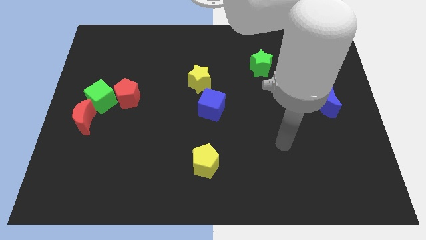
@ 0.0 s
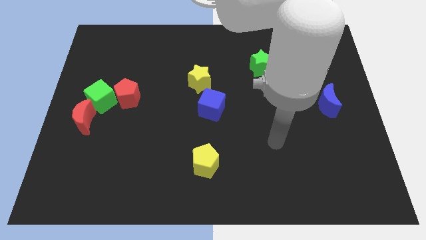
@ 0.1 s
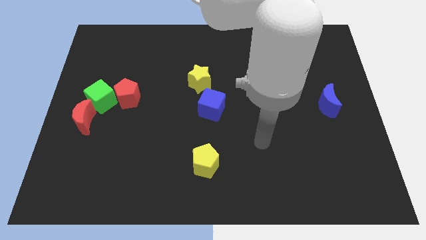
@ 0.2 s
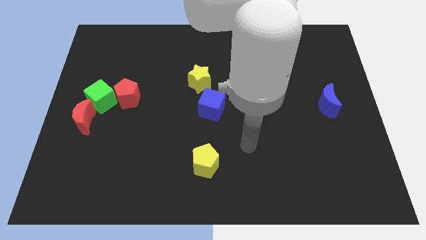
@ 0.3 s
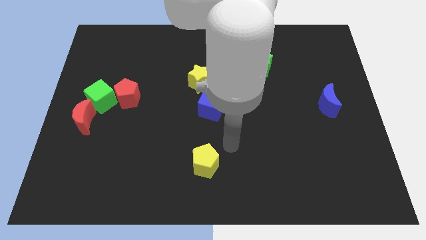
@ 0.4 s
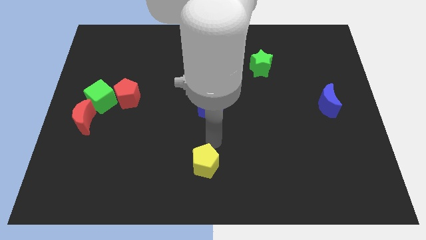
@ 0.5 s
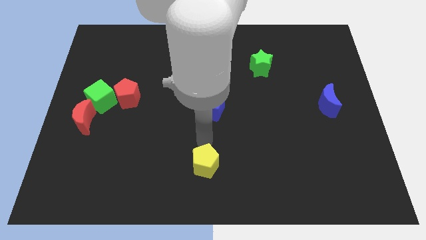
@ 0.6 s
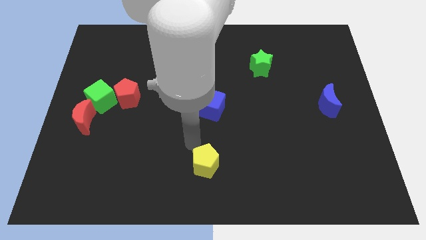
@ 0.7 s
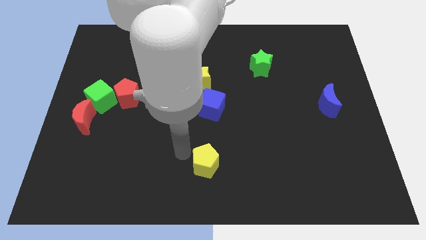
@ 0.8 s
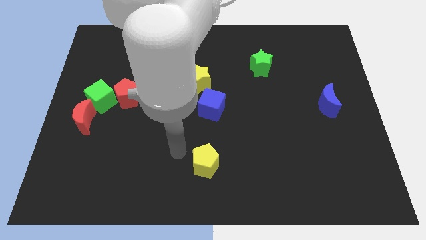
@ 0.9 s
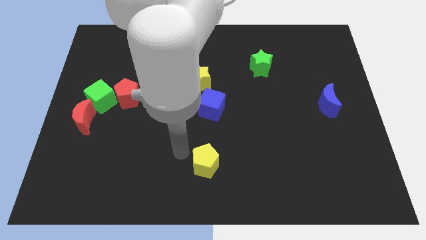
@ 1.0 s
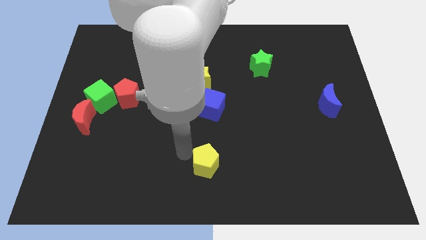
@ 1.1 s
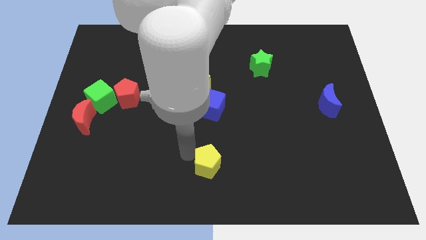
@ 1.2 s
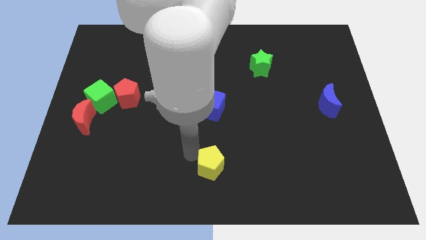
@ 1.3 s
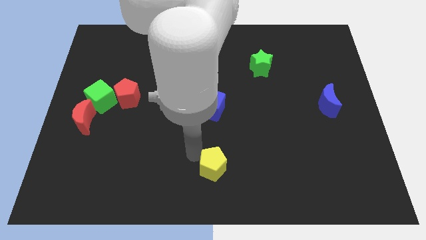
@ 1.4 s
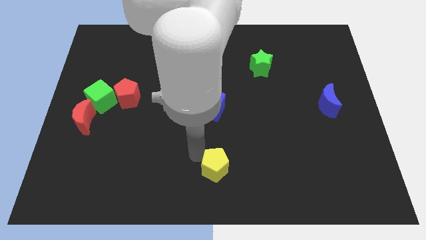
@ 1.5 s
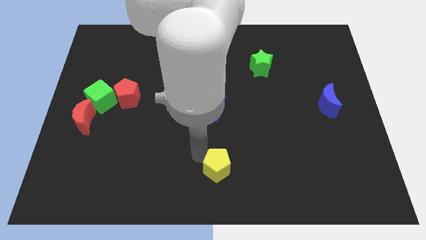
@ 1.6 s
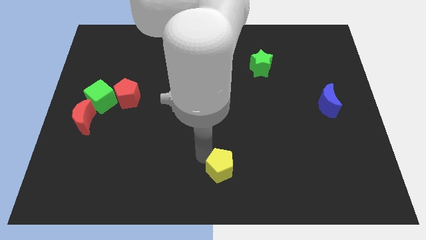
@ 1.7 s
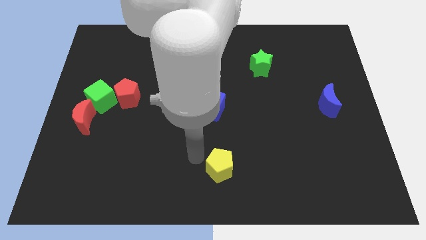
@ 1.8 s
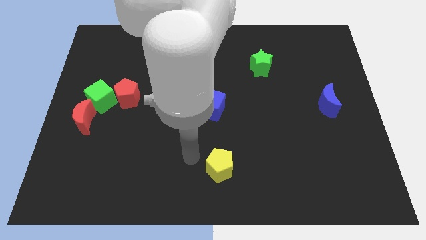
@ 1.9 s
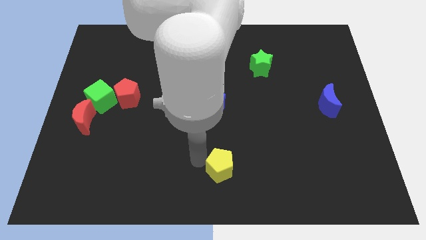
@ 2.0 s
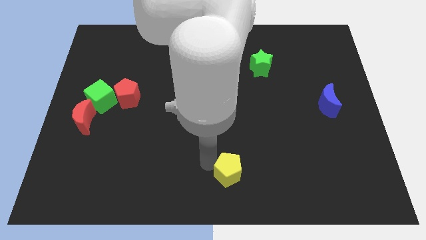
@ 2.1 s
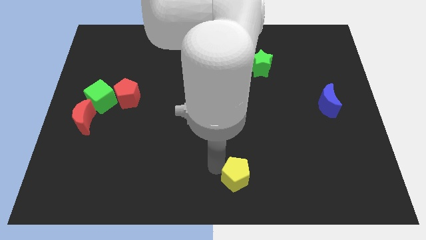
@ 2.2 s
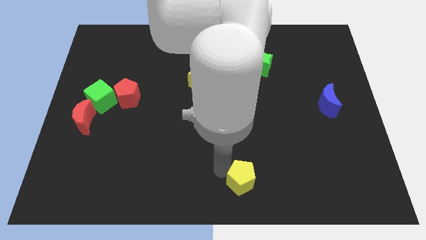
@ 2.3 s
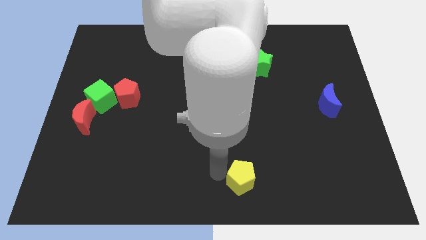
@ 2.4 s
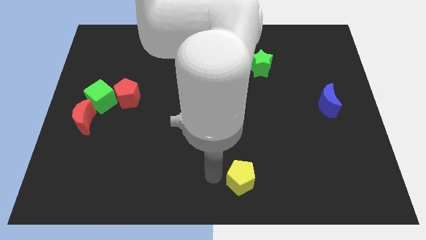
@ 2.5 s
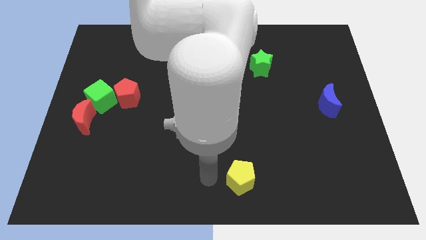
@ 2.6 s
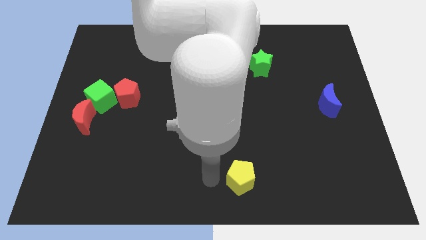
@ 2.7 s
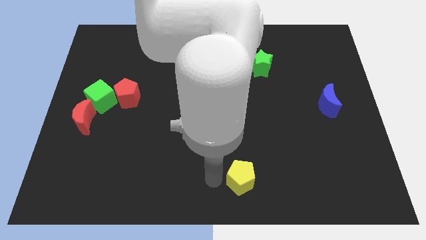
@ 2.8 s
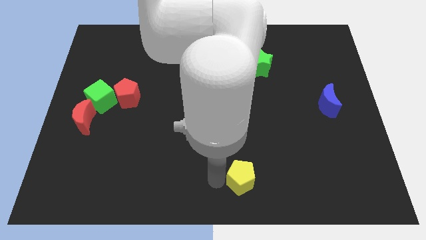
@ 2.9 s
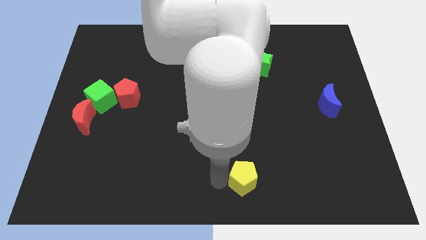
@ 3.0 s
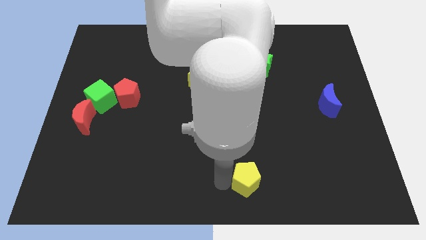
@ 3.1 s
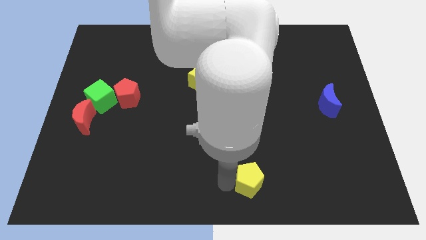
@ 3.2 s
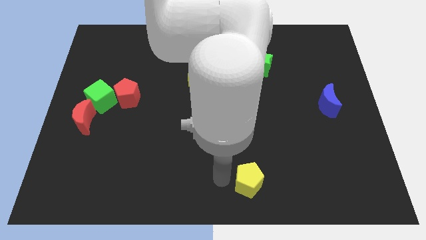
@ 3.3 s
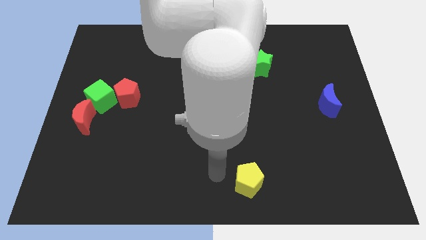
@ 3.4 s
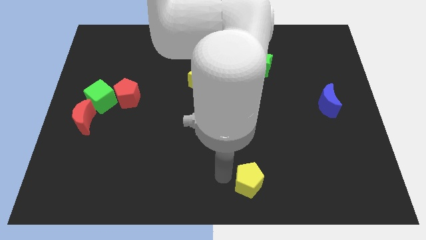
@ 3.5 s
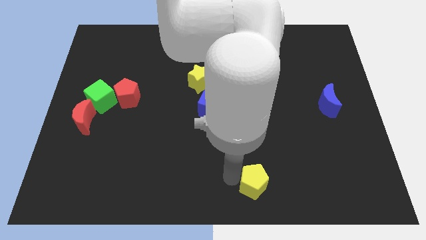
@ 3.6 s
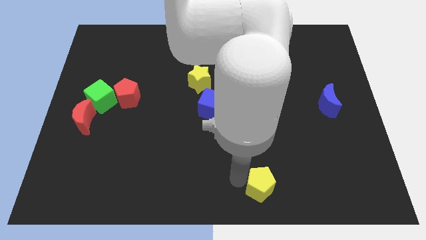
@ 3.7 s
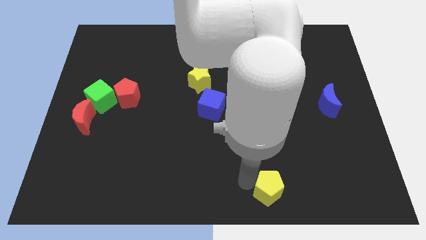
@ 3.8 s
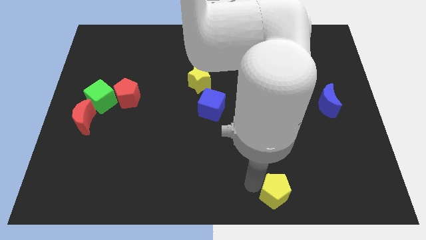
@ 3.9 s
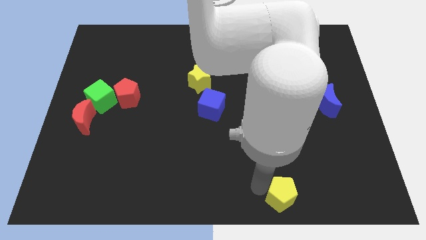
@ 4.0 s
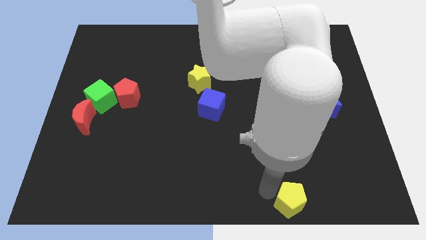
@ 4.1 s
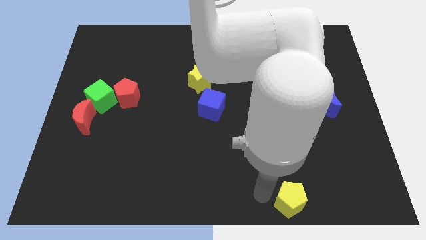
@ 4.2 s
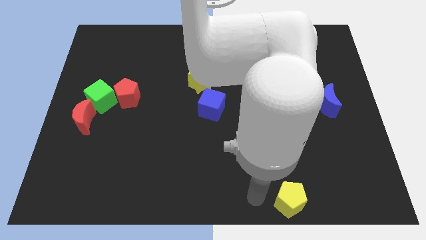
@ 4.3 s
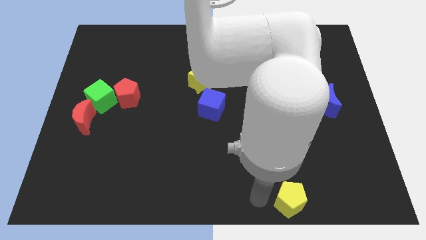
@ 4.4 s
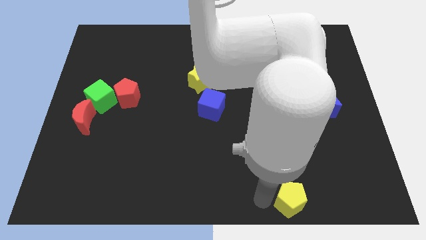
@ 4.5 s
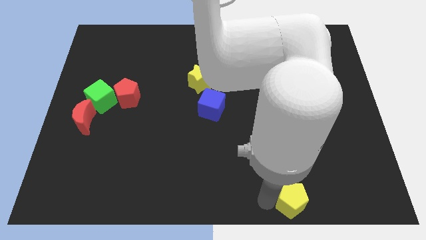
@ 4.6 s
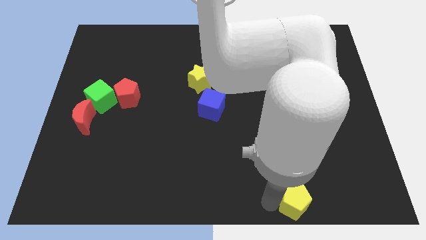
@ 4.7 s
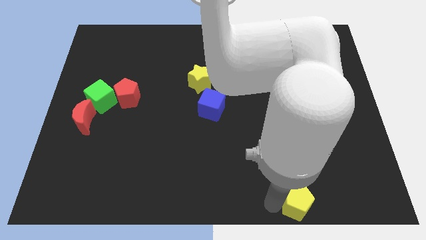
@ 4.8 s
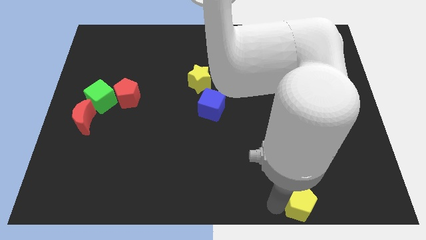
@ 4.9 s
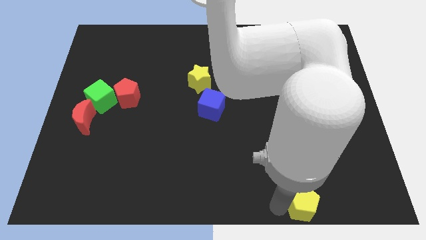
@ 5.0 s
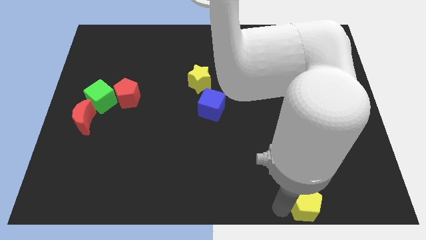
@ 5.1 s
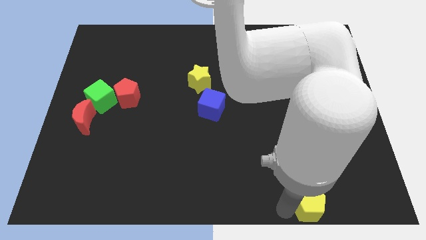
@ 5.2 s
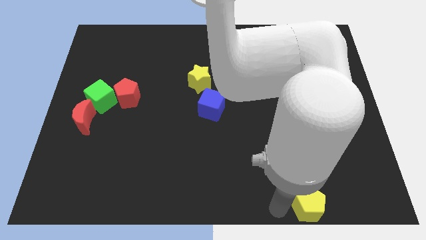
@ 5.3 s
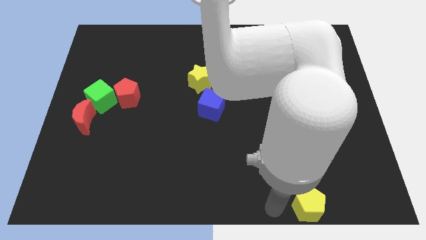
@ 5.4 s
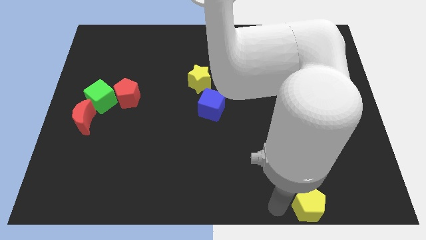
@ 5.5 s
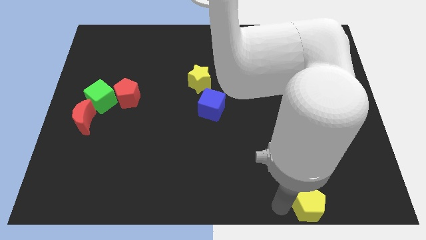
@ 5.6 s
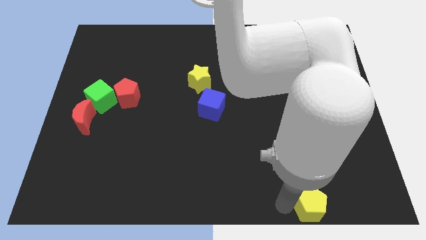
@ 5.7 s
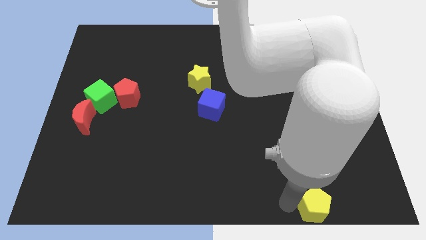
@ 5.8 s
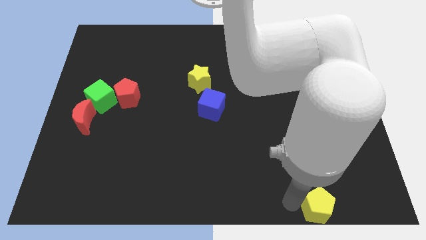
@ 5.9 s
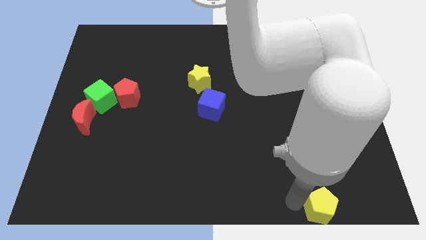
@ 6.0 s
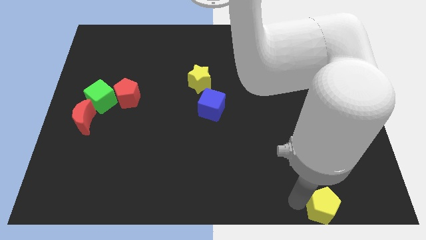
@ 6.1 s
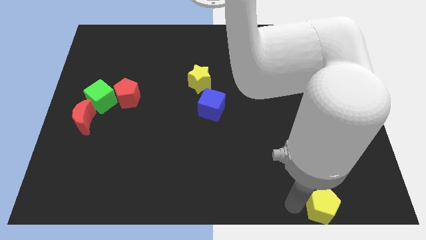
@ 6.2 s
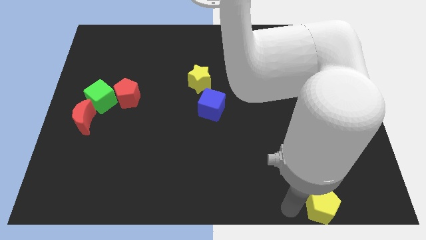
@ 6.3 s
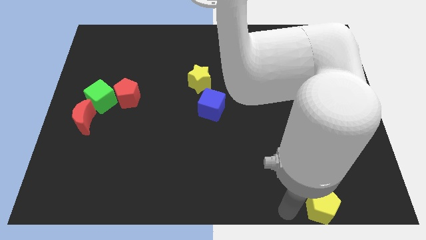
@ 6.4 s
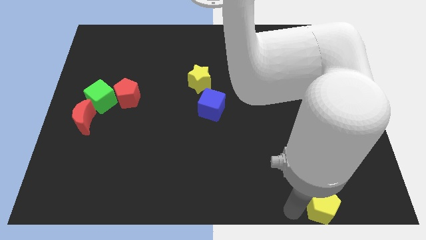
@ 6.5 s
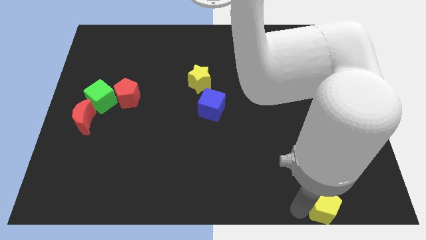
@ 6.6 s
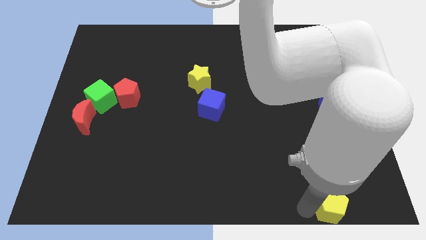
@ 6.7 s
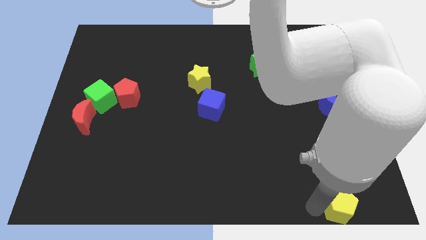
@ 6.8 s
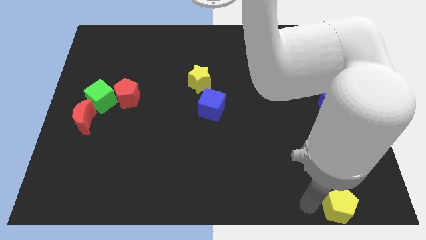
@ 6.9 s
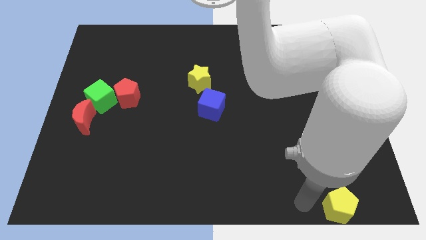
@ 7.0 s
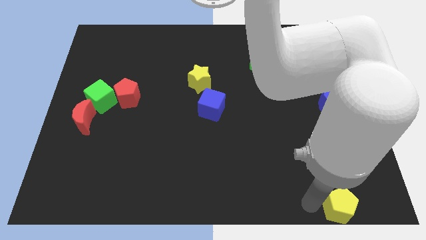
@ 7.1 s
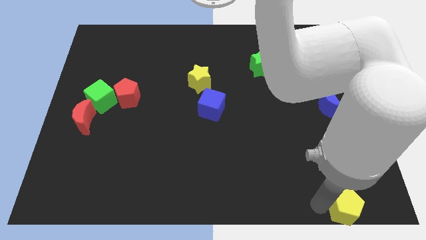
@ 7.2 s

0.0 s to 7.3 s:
push the yellow pentagon to the bottom right of the board
